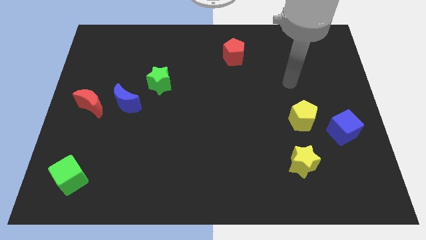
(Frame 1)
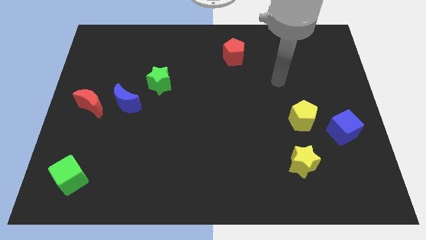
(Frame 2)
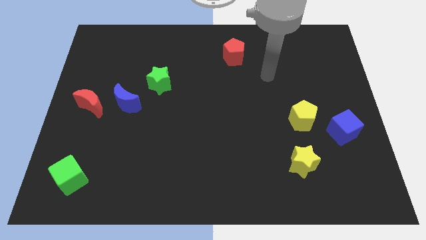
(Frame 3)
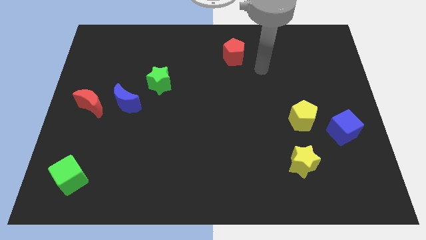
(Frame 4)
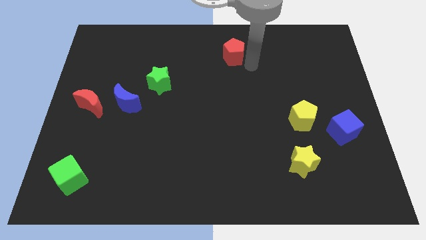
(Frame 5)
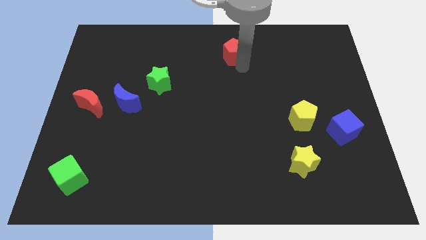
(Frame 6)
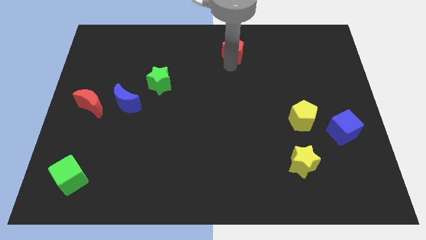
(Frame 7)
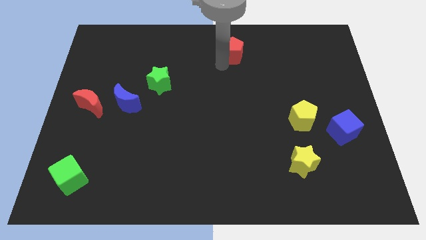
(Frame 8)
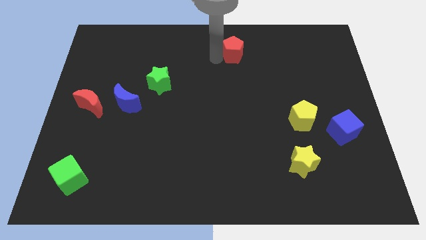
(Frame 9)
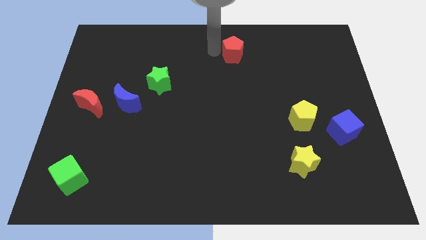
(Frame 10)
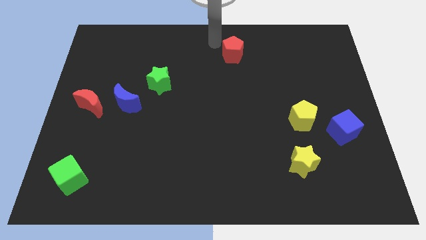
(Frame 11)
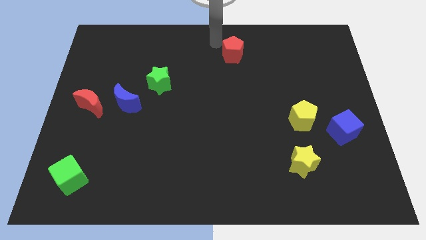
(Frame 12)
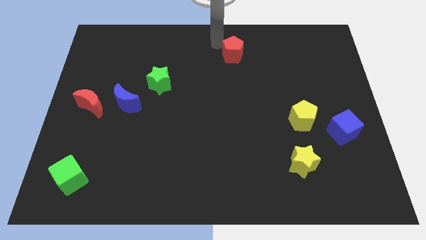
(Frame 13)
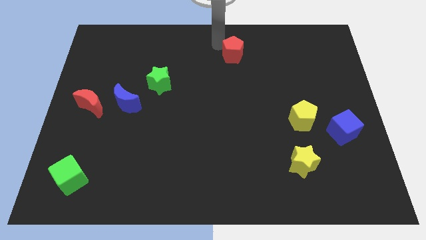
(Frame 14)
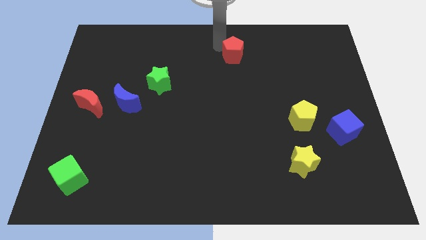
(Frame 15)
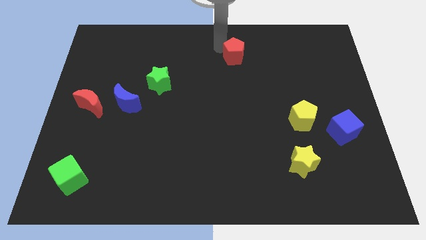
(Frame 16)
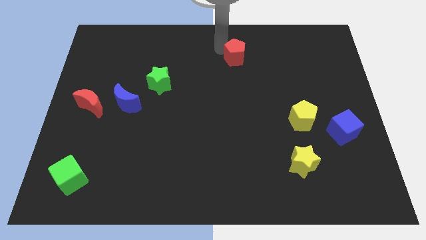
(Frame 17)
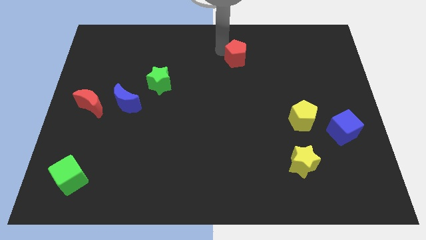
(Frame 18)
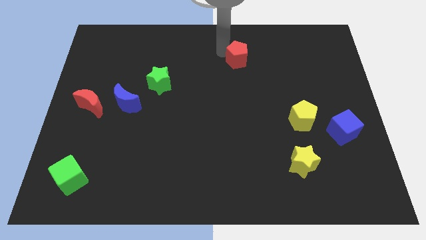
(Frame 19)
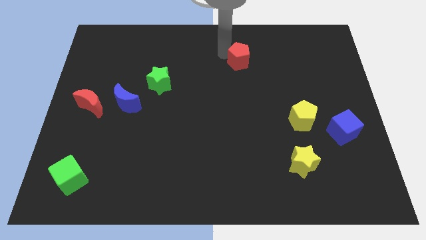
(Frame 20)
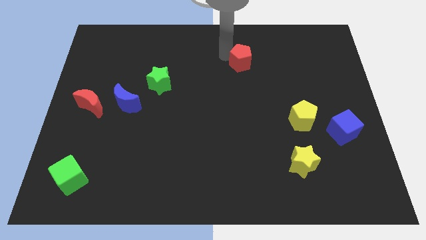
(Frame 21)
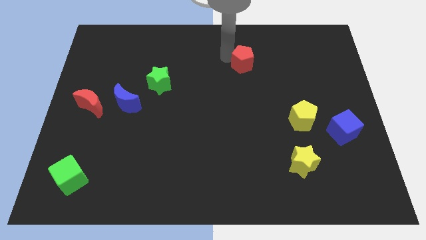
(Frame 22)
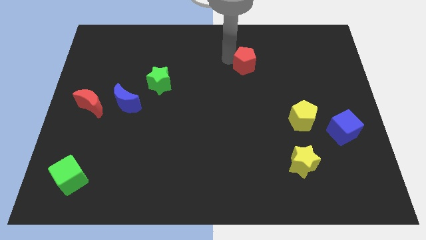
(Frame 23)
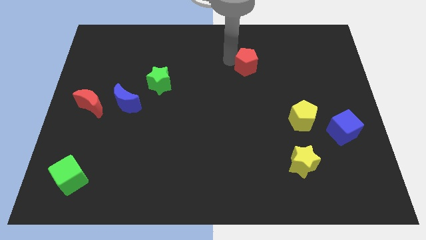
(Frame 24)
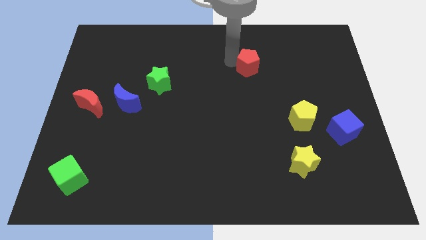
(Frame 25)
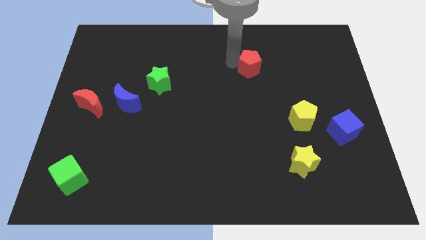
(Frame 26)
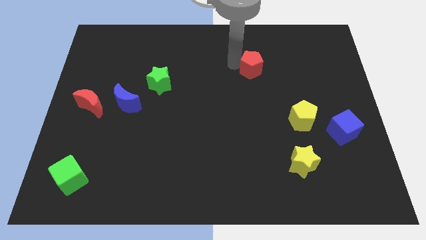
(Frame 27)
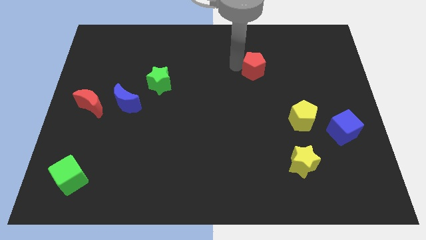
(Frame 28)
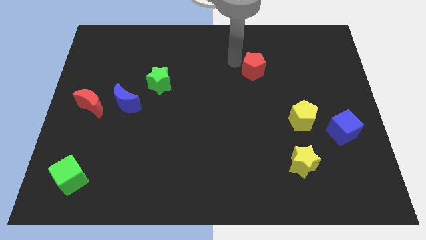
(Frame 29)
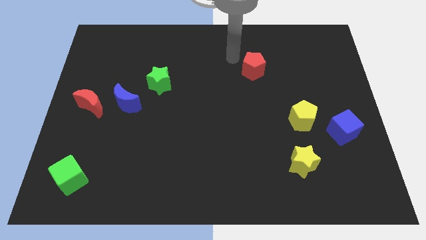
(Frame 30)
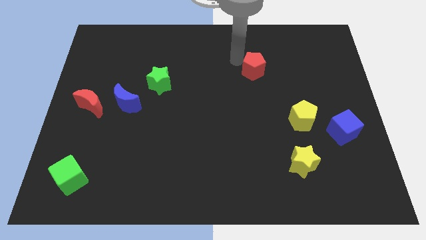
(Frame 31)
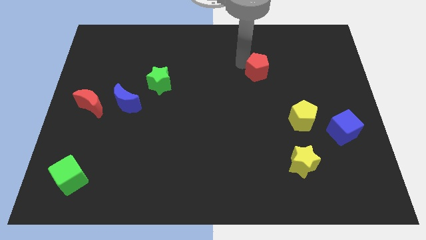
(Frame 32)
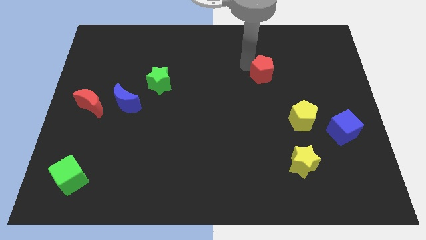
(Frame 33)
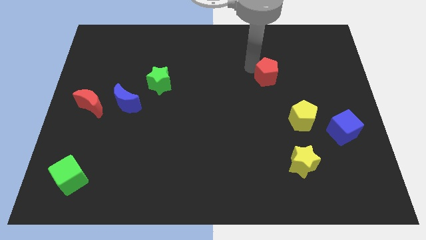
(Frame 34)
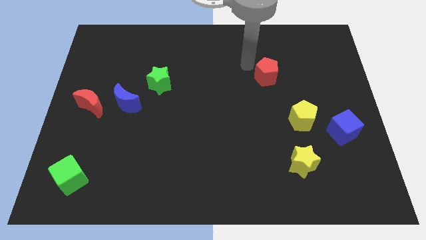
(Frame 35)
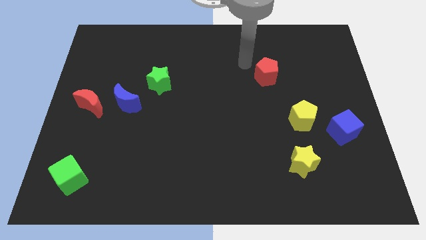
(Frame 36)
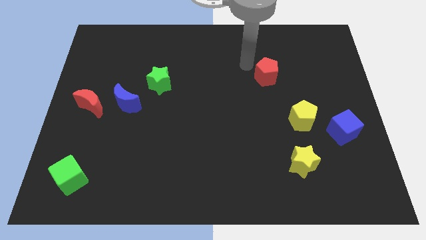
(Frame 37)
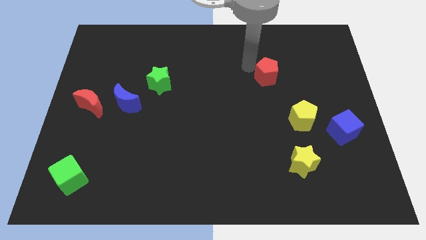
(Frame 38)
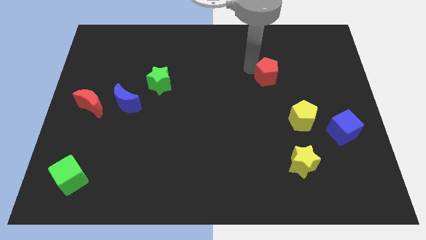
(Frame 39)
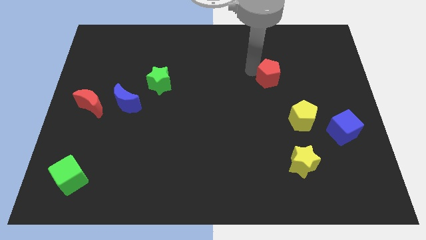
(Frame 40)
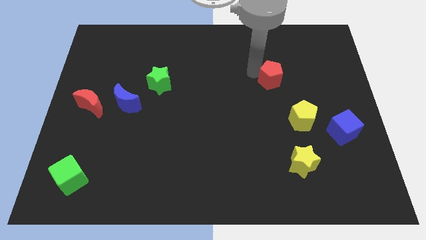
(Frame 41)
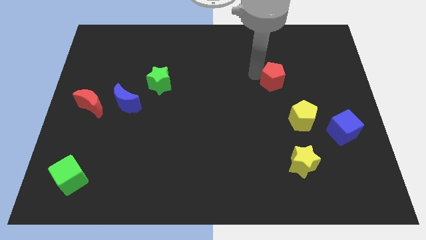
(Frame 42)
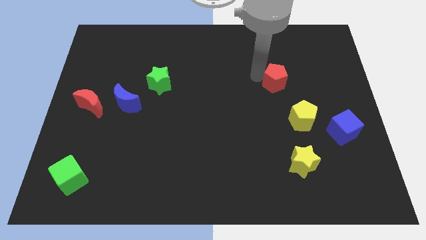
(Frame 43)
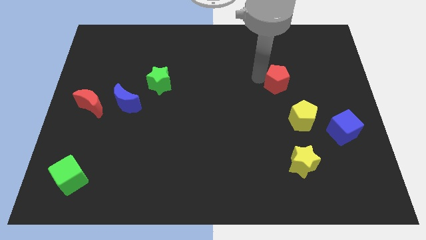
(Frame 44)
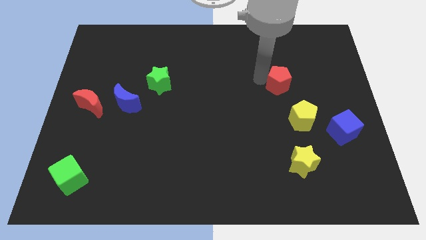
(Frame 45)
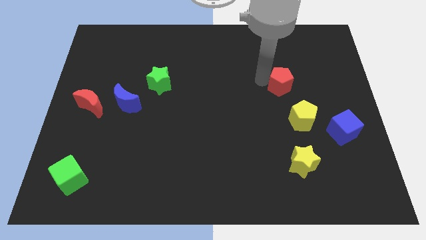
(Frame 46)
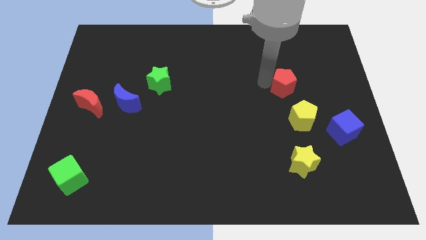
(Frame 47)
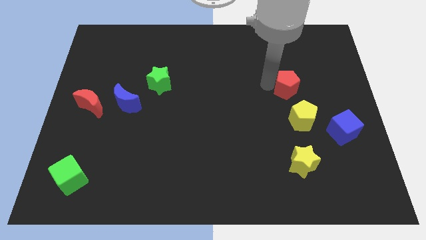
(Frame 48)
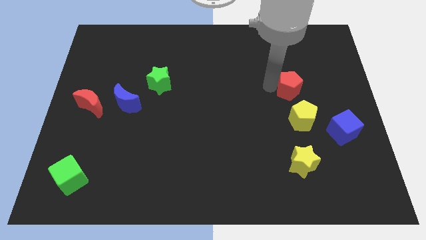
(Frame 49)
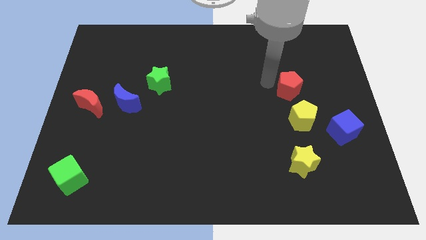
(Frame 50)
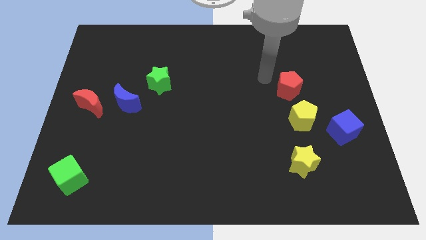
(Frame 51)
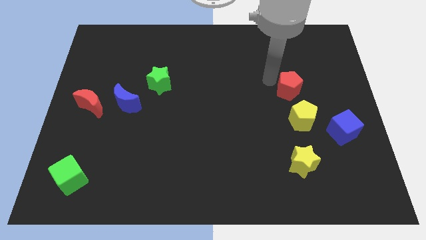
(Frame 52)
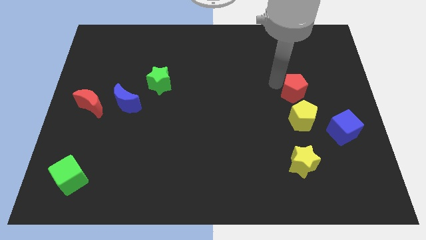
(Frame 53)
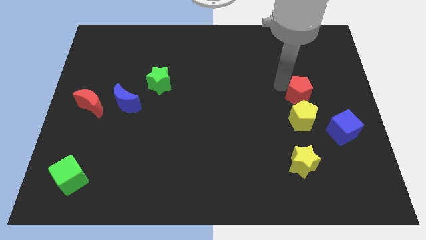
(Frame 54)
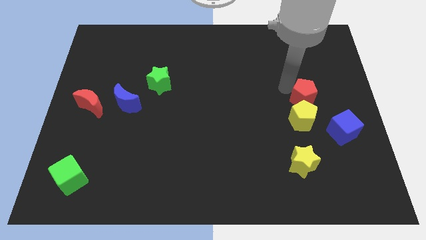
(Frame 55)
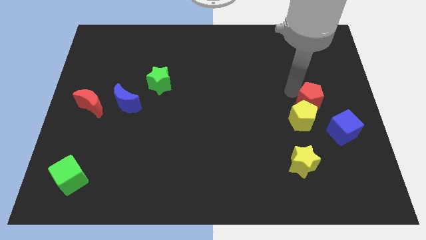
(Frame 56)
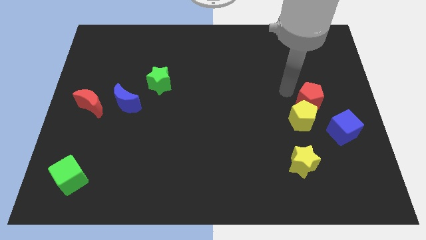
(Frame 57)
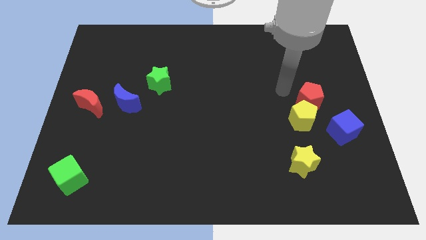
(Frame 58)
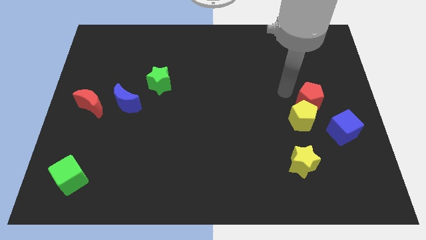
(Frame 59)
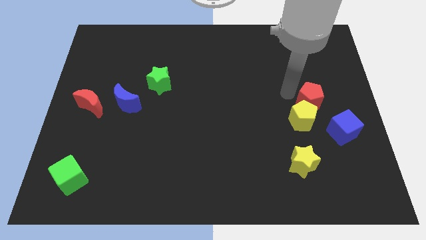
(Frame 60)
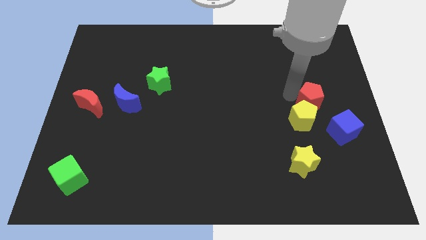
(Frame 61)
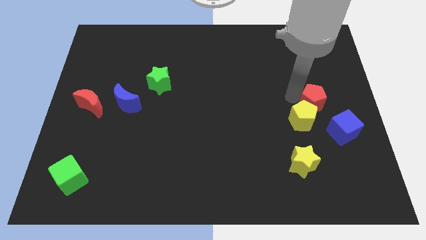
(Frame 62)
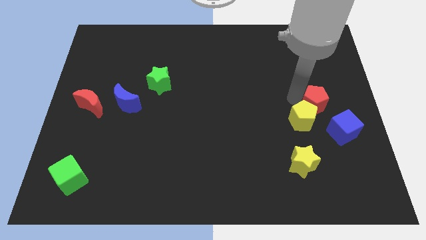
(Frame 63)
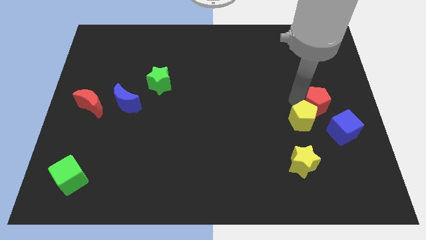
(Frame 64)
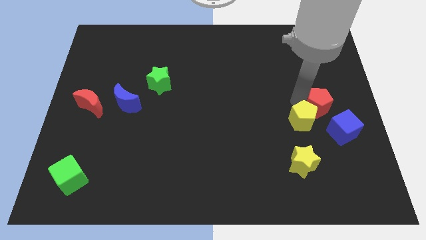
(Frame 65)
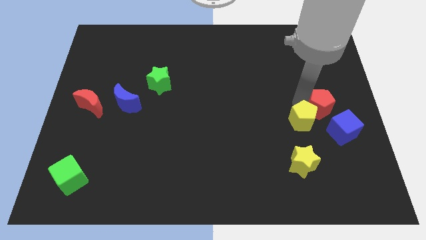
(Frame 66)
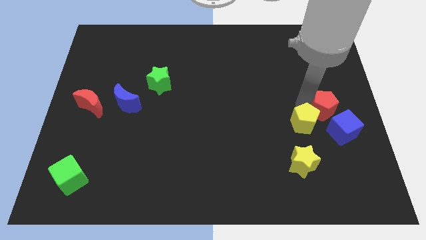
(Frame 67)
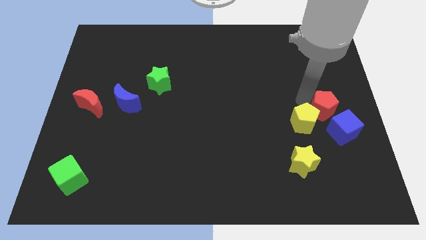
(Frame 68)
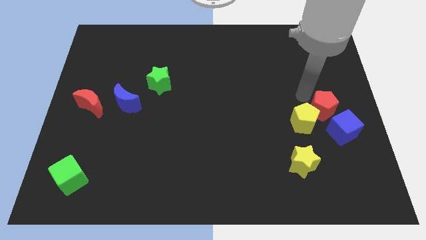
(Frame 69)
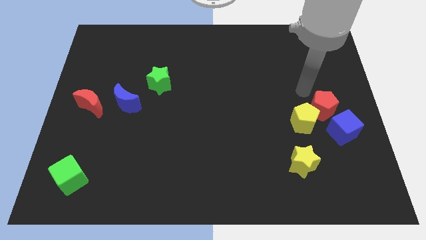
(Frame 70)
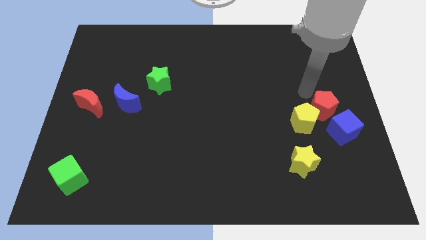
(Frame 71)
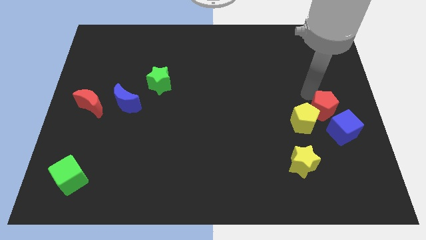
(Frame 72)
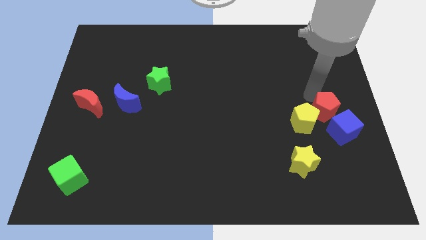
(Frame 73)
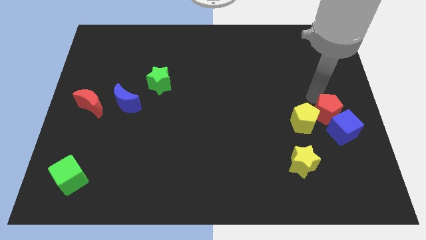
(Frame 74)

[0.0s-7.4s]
push the red pentagon to the blue cube
